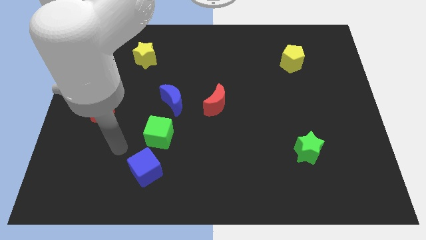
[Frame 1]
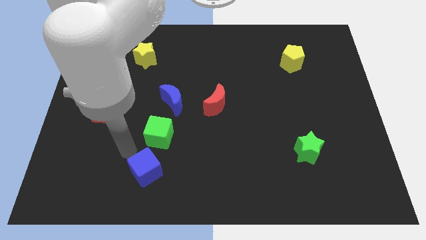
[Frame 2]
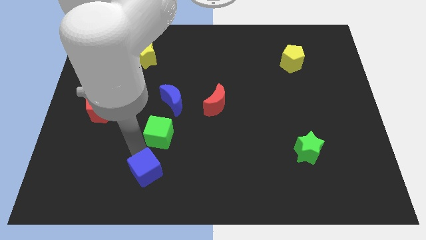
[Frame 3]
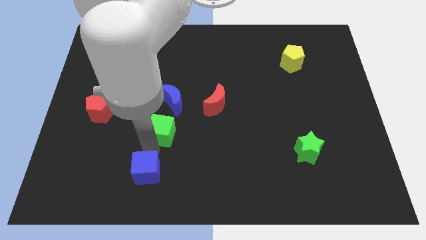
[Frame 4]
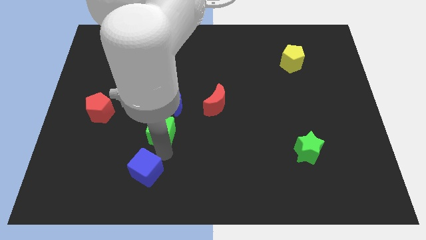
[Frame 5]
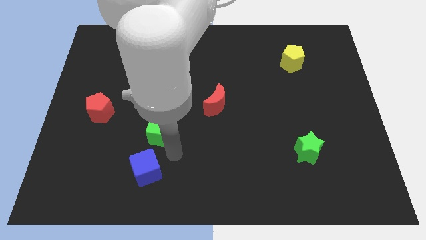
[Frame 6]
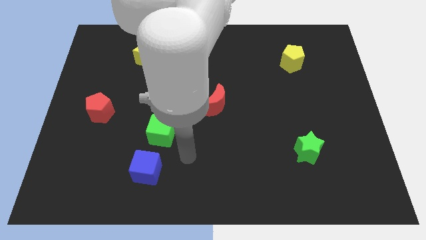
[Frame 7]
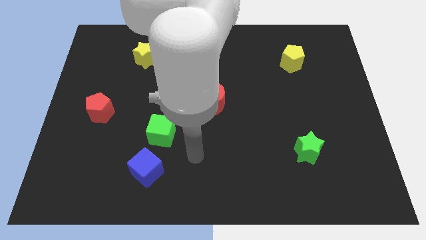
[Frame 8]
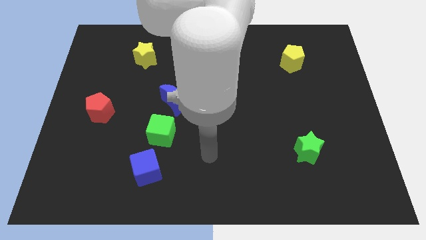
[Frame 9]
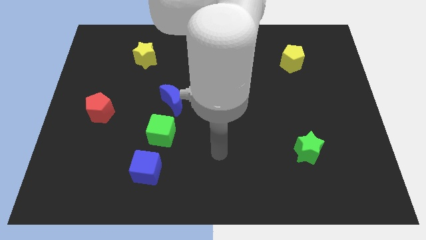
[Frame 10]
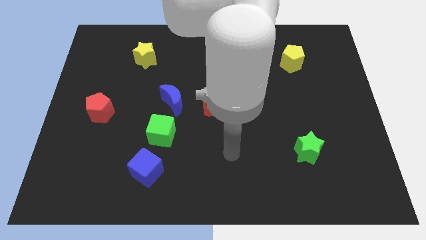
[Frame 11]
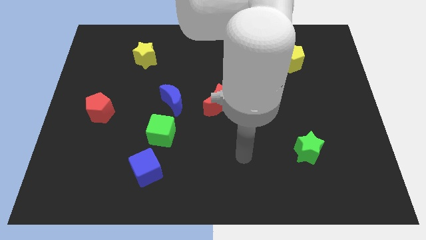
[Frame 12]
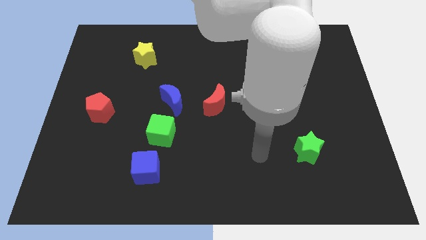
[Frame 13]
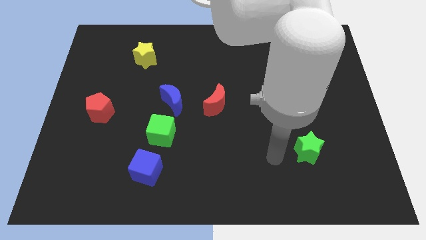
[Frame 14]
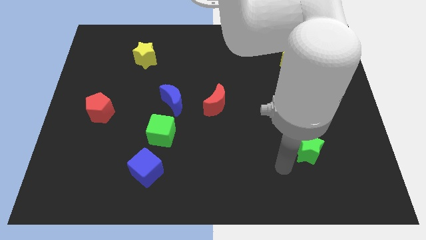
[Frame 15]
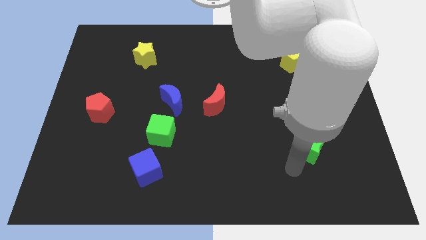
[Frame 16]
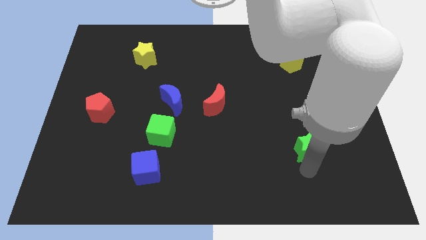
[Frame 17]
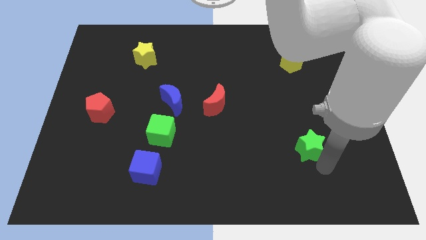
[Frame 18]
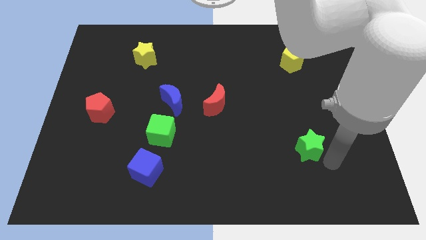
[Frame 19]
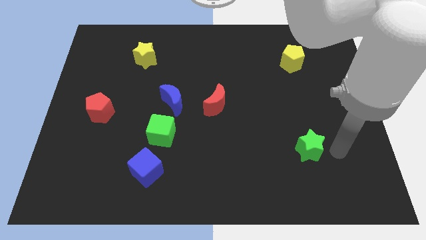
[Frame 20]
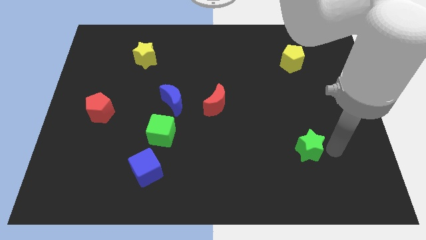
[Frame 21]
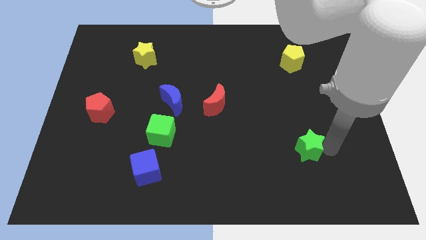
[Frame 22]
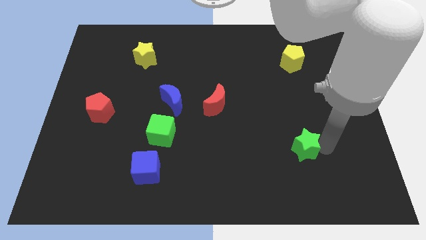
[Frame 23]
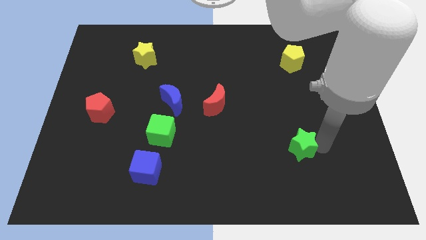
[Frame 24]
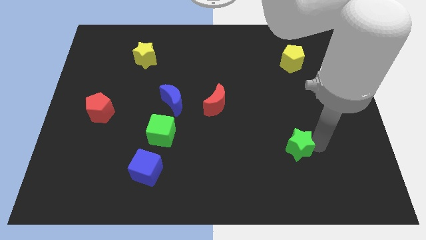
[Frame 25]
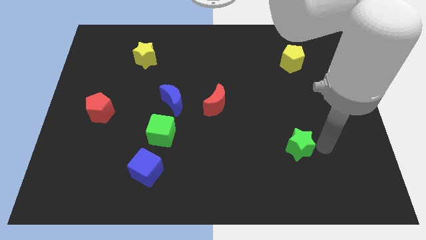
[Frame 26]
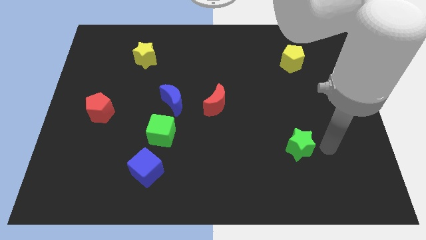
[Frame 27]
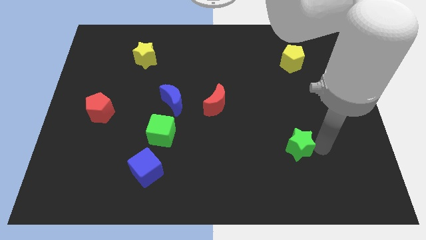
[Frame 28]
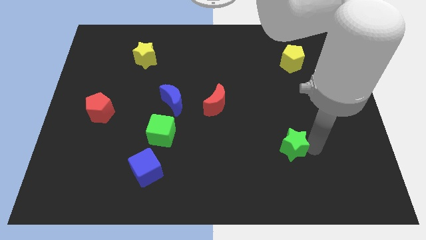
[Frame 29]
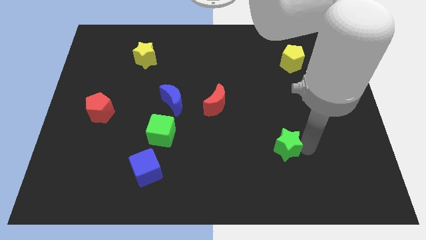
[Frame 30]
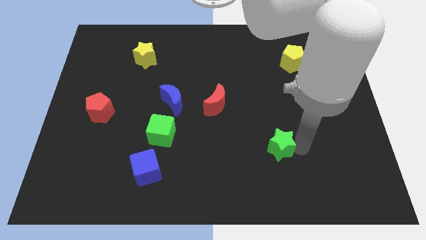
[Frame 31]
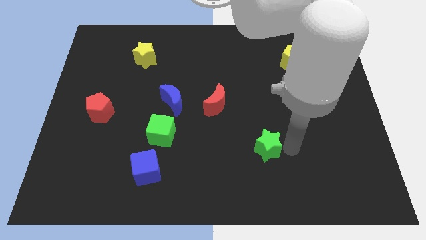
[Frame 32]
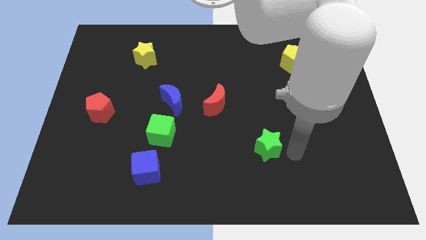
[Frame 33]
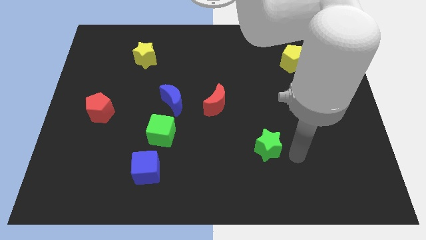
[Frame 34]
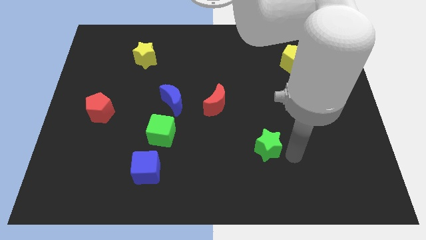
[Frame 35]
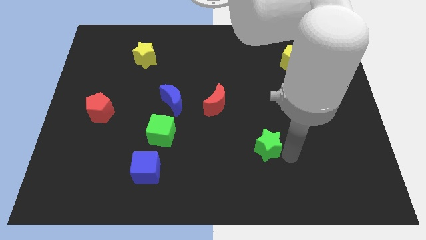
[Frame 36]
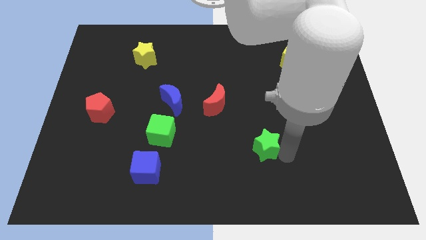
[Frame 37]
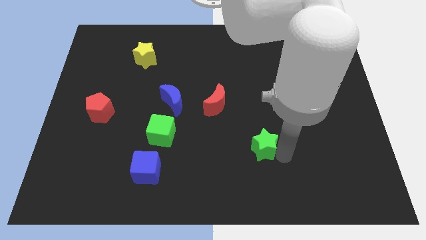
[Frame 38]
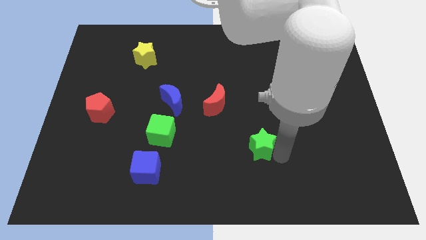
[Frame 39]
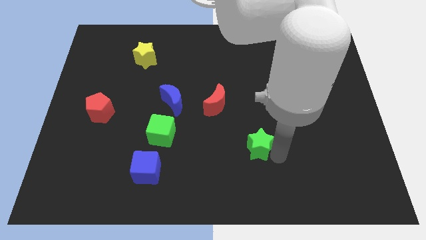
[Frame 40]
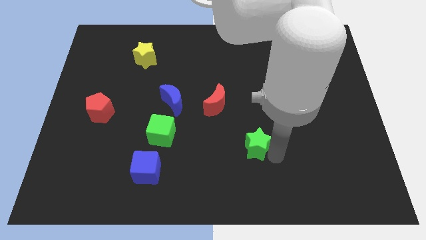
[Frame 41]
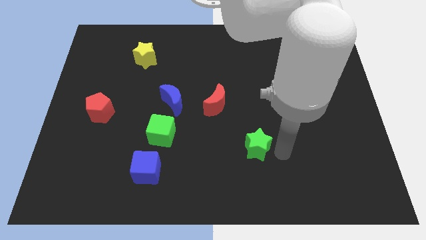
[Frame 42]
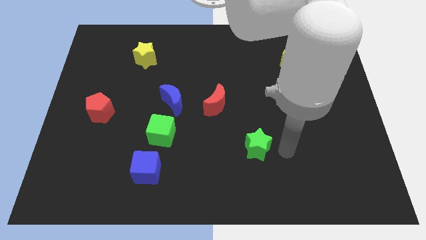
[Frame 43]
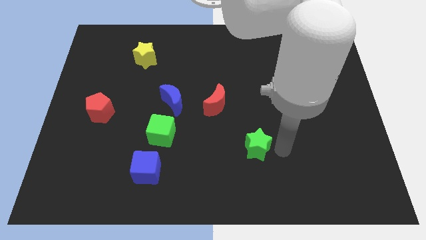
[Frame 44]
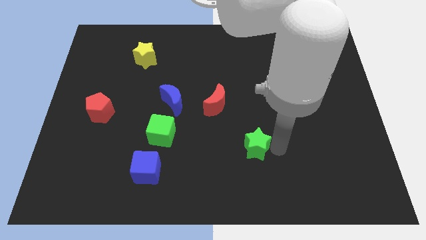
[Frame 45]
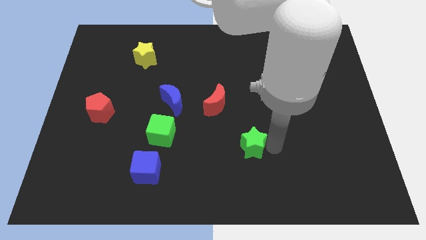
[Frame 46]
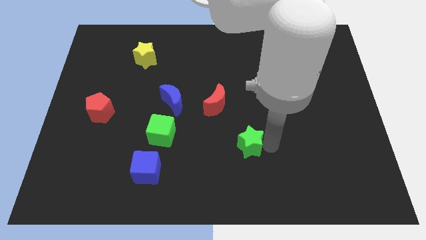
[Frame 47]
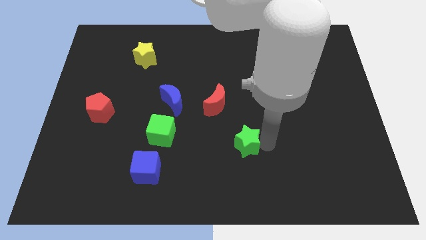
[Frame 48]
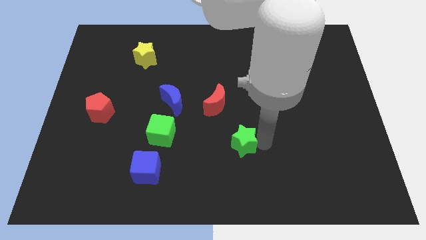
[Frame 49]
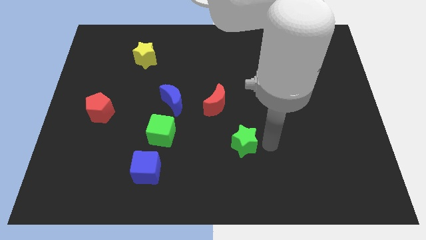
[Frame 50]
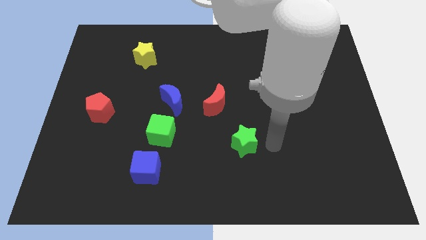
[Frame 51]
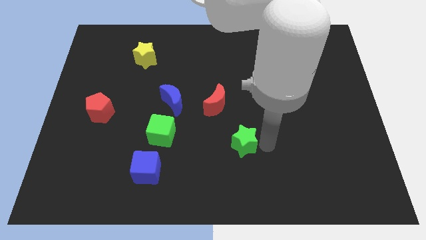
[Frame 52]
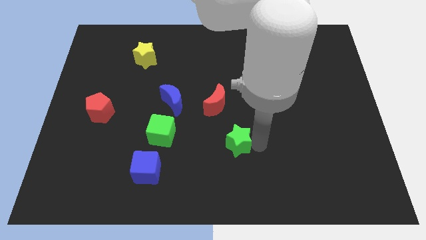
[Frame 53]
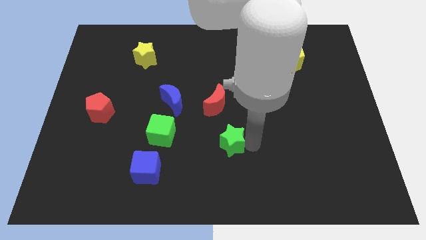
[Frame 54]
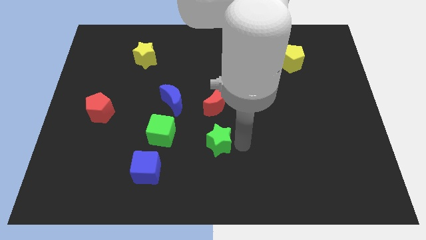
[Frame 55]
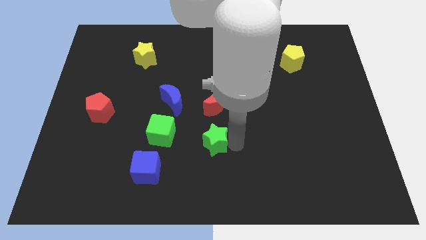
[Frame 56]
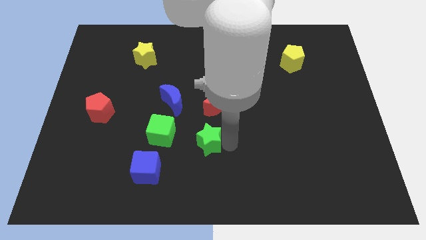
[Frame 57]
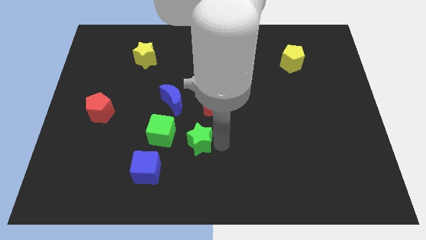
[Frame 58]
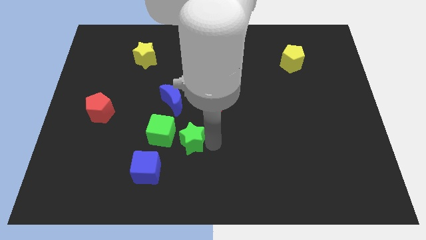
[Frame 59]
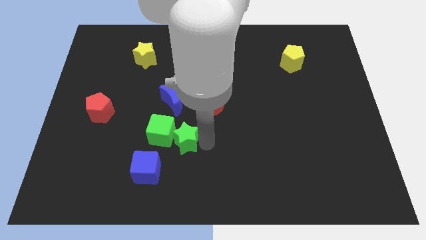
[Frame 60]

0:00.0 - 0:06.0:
slide the green star close to the green cube

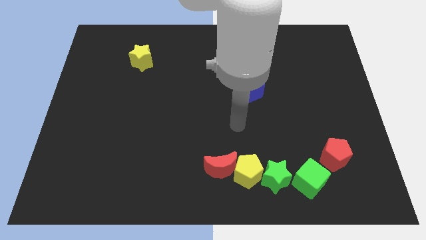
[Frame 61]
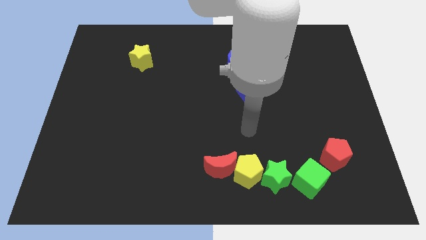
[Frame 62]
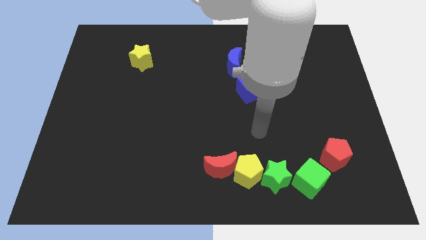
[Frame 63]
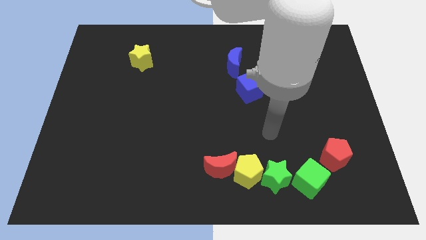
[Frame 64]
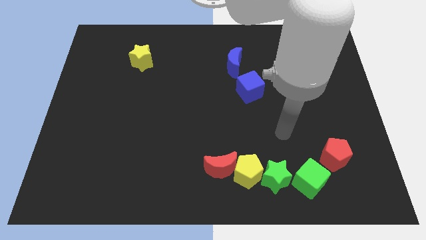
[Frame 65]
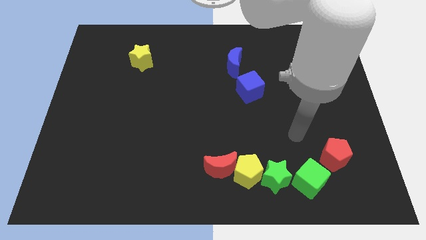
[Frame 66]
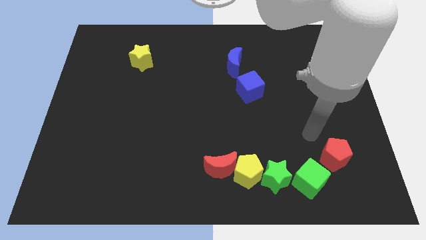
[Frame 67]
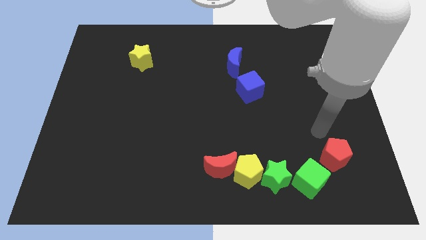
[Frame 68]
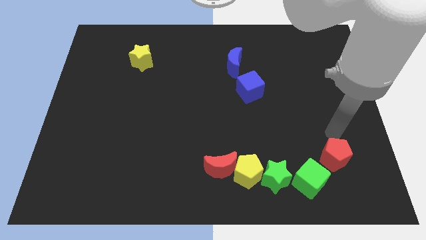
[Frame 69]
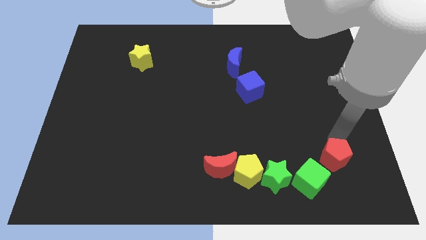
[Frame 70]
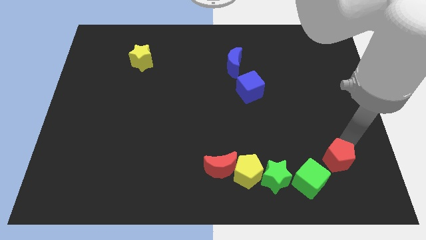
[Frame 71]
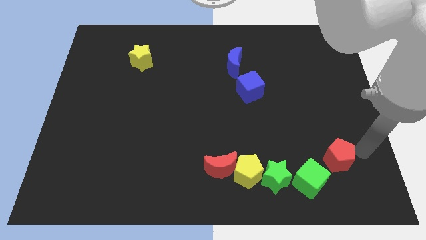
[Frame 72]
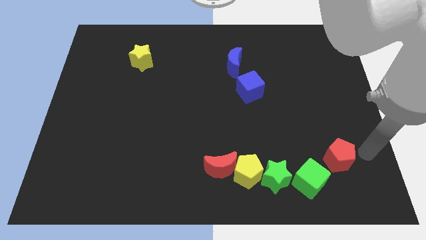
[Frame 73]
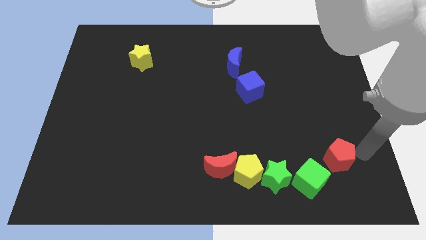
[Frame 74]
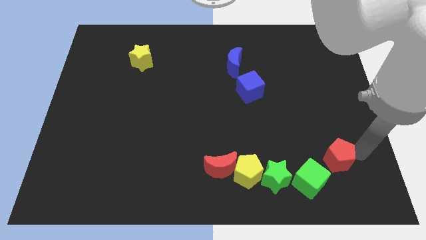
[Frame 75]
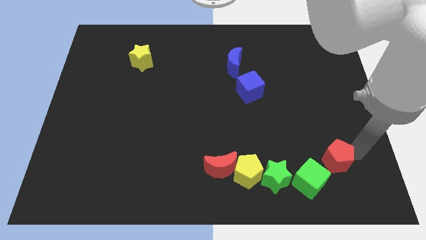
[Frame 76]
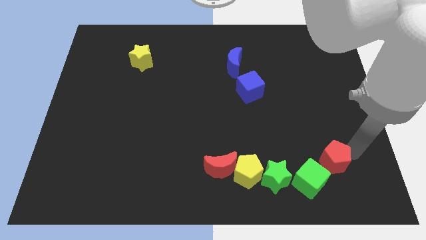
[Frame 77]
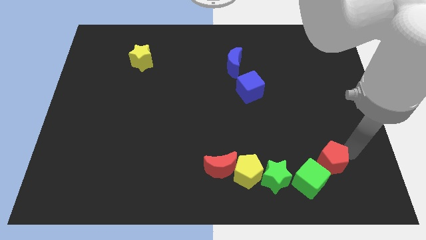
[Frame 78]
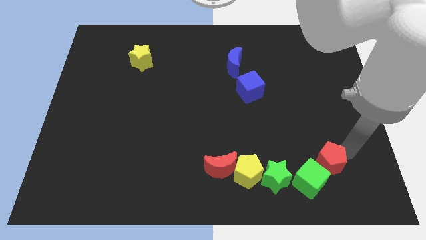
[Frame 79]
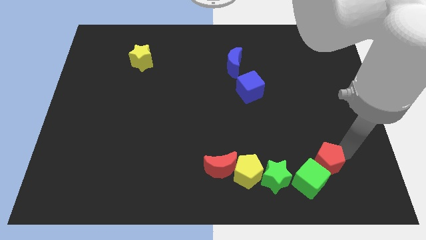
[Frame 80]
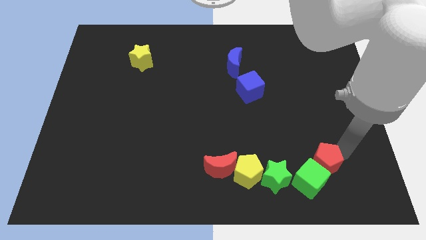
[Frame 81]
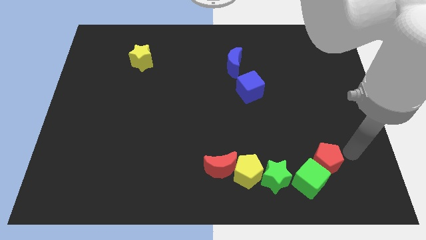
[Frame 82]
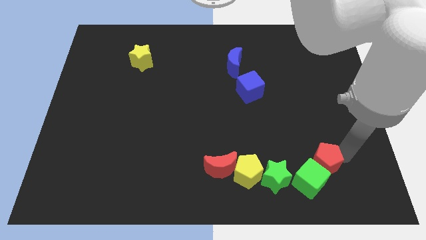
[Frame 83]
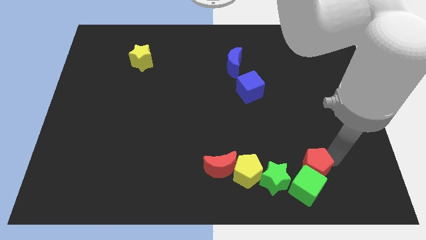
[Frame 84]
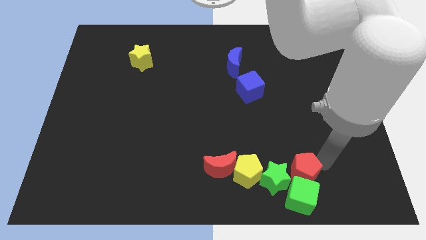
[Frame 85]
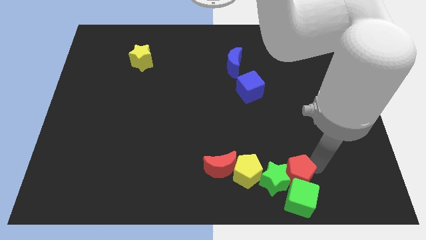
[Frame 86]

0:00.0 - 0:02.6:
push the red pentagon to the green star
